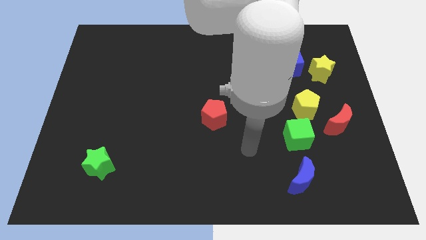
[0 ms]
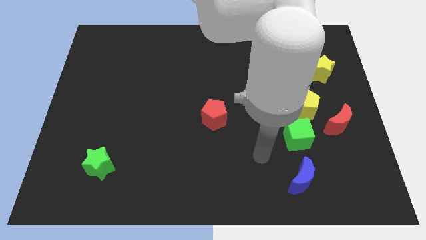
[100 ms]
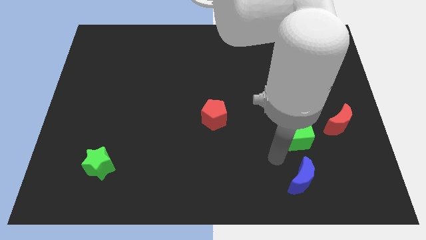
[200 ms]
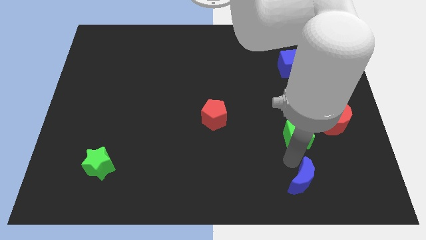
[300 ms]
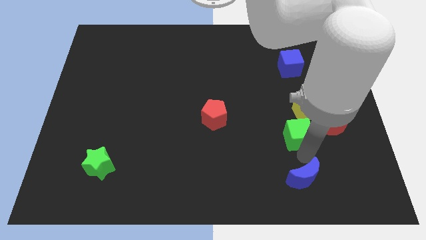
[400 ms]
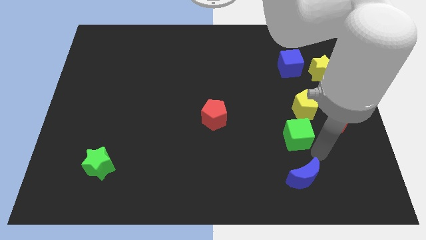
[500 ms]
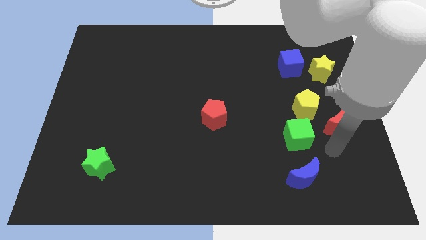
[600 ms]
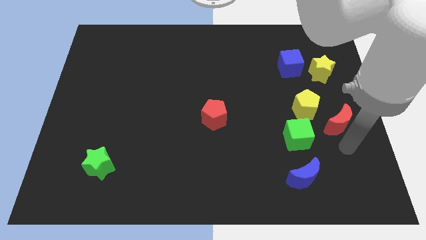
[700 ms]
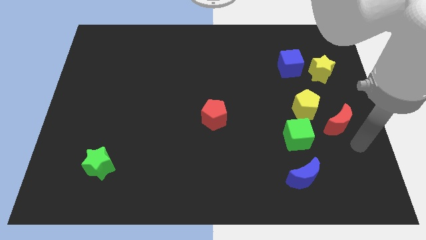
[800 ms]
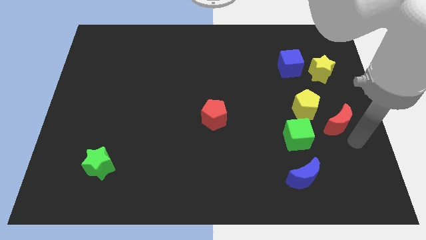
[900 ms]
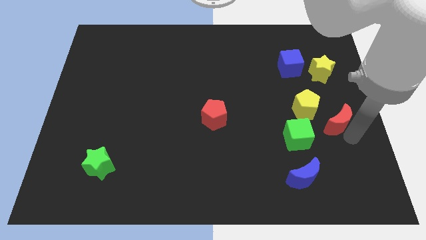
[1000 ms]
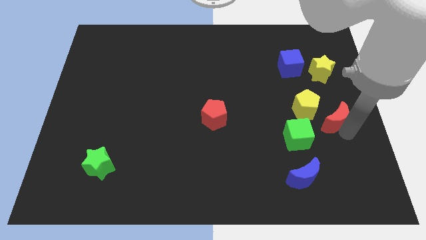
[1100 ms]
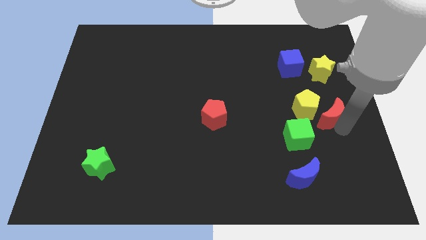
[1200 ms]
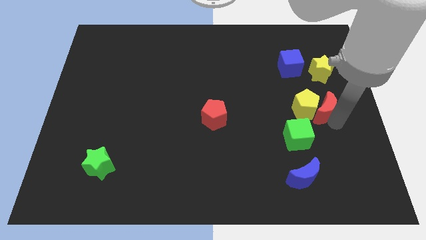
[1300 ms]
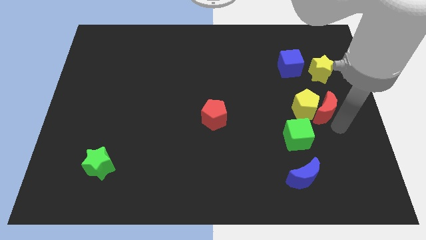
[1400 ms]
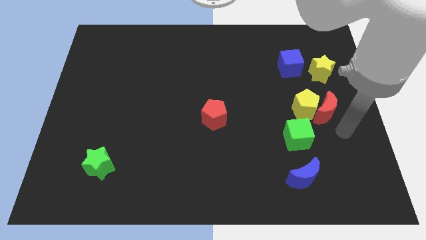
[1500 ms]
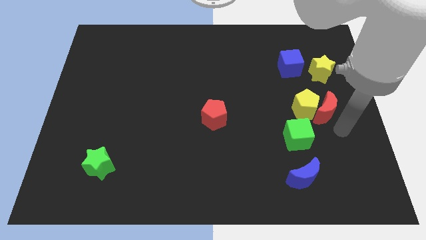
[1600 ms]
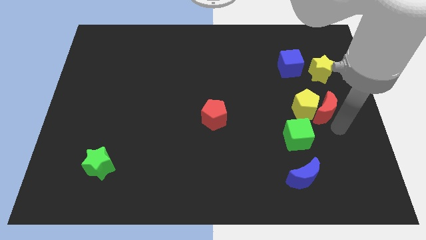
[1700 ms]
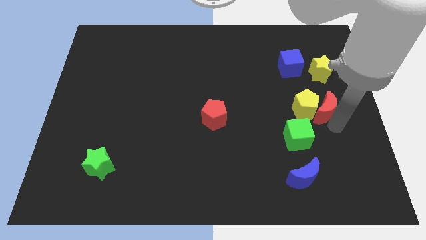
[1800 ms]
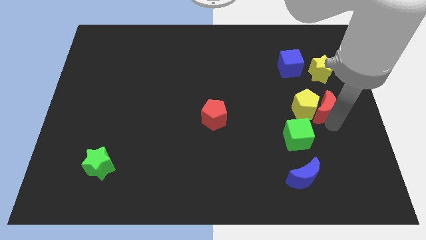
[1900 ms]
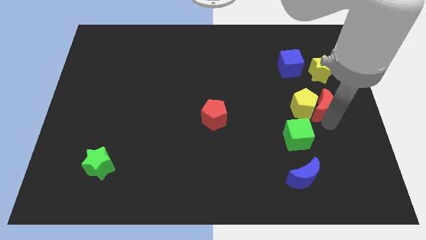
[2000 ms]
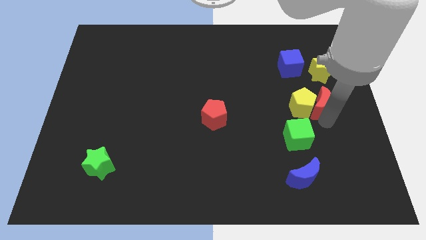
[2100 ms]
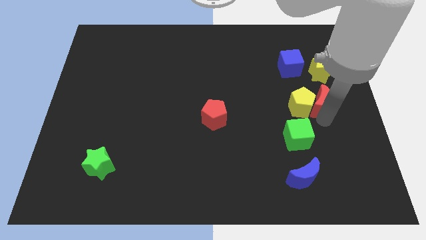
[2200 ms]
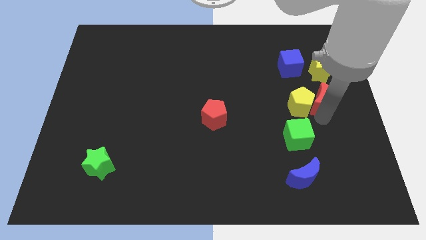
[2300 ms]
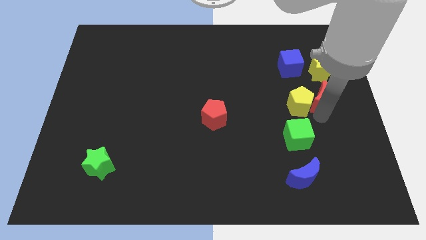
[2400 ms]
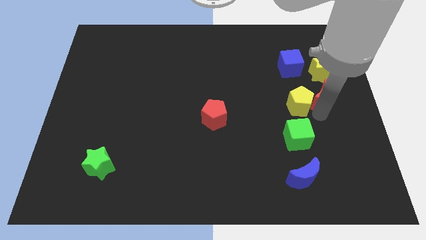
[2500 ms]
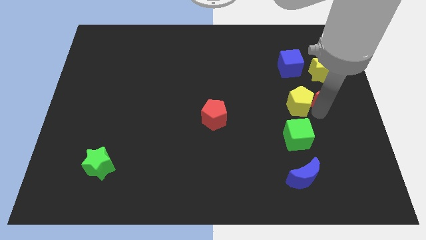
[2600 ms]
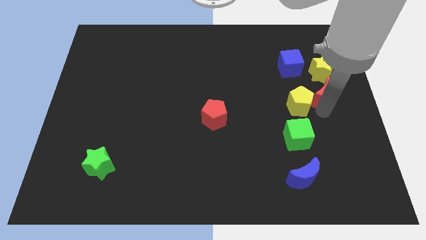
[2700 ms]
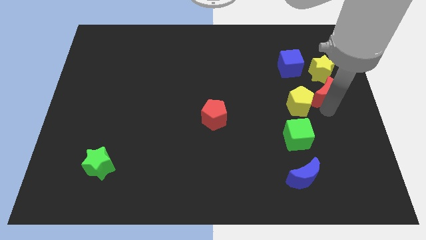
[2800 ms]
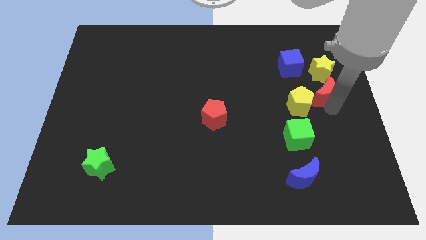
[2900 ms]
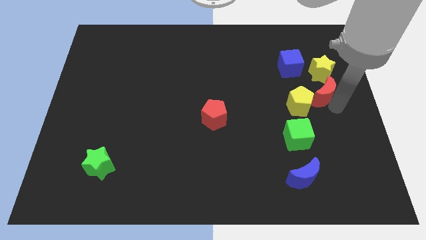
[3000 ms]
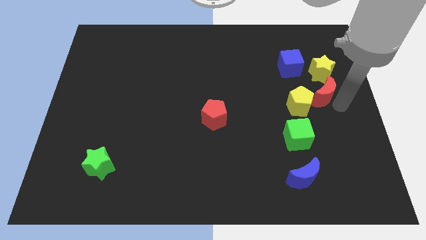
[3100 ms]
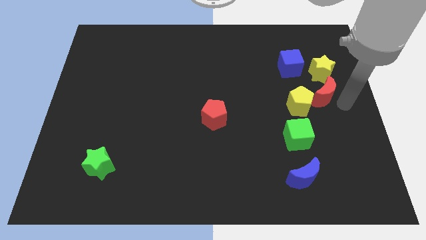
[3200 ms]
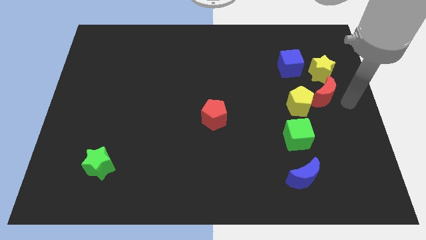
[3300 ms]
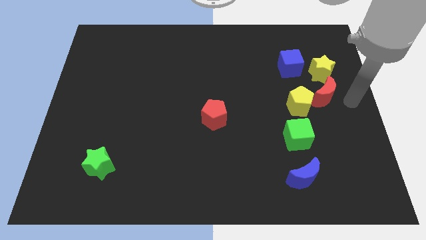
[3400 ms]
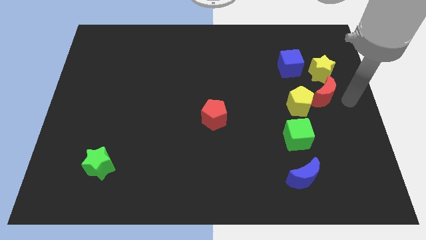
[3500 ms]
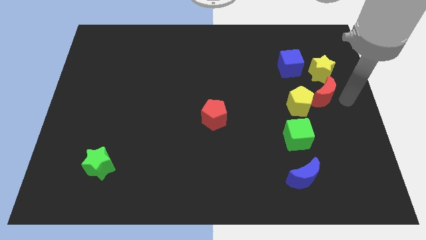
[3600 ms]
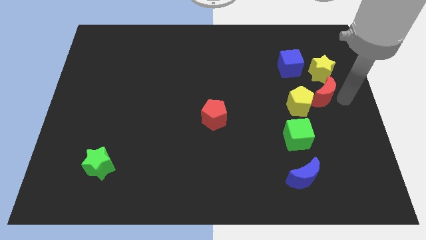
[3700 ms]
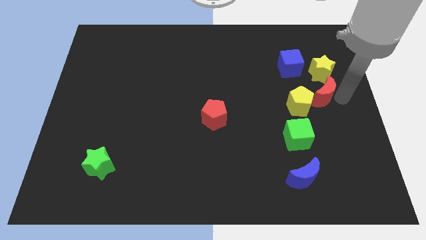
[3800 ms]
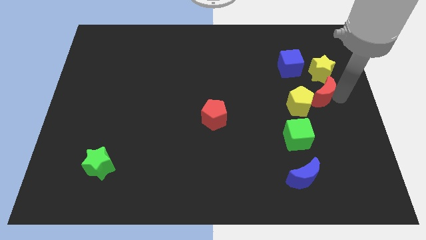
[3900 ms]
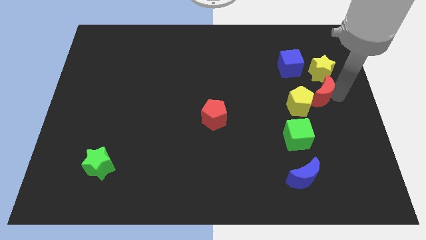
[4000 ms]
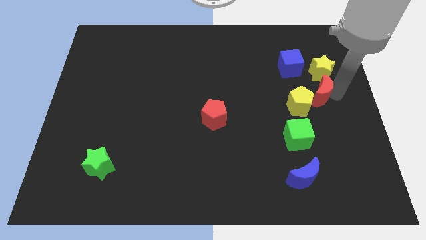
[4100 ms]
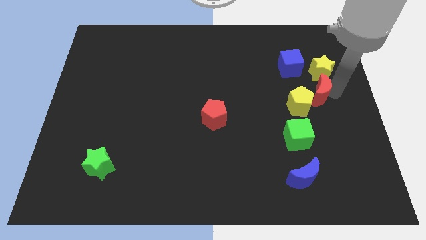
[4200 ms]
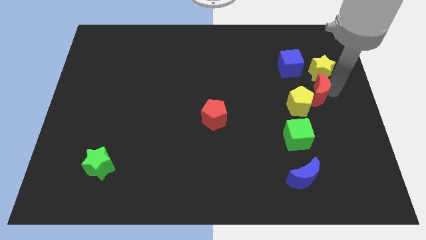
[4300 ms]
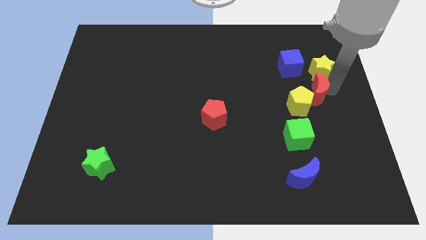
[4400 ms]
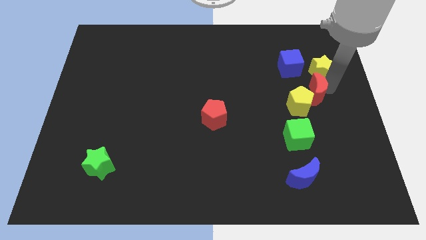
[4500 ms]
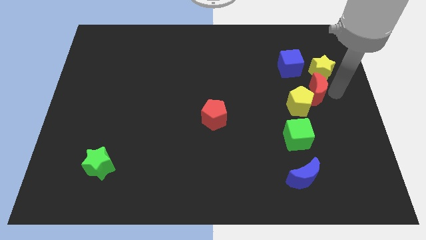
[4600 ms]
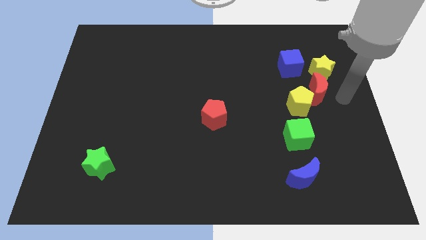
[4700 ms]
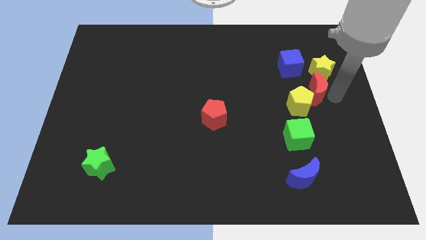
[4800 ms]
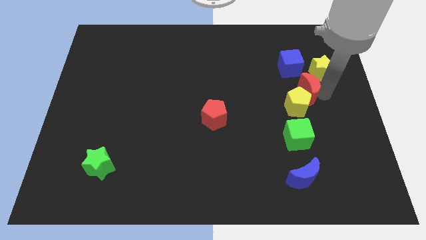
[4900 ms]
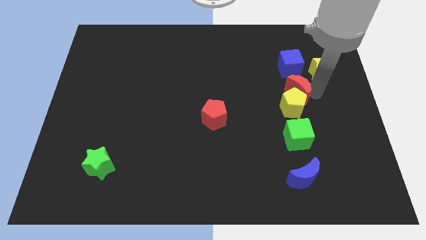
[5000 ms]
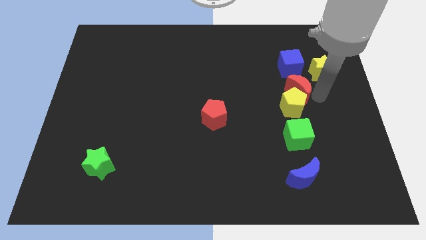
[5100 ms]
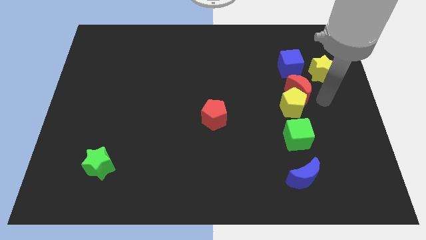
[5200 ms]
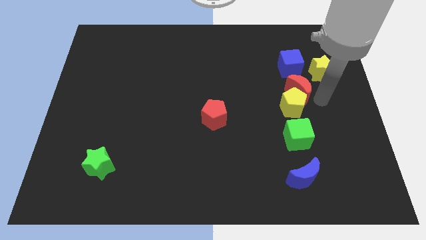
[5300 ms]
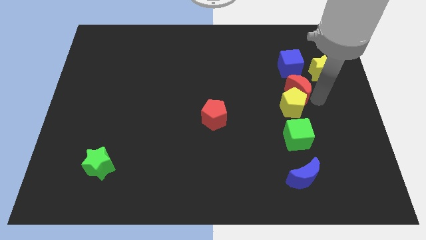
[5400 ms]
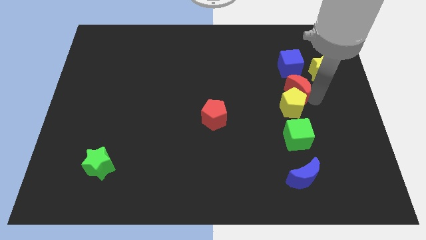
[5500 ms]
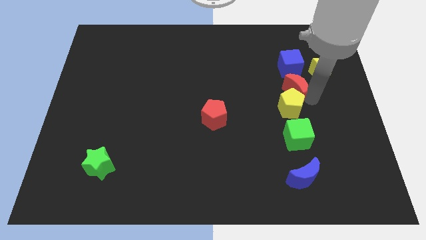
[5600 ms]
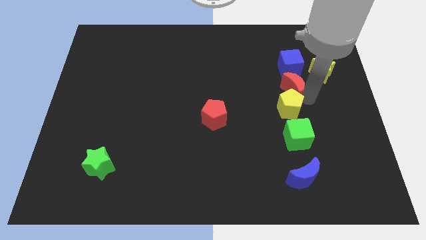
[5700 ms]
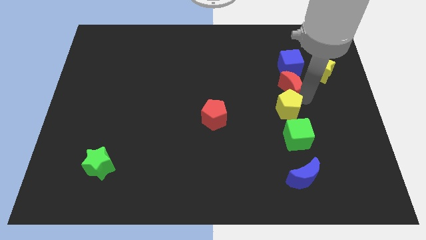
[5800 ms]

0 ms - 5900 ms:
put the red moon diagonally down and to the left of the blue cube

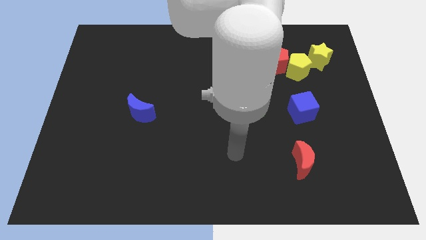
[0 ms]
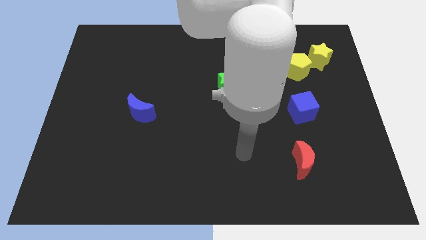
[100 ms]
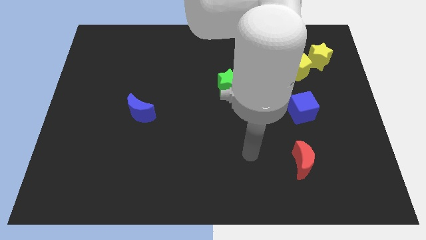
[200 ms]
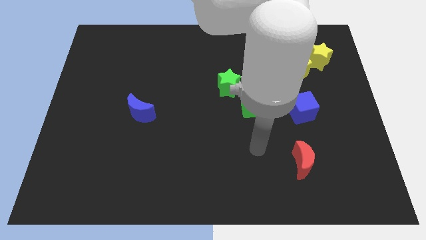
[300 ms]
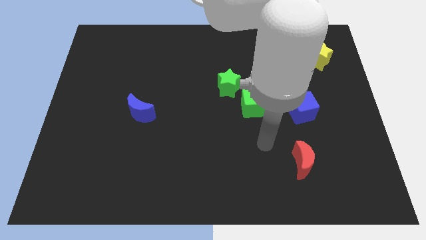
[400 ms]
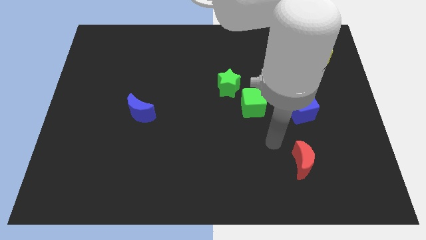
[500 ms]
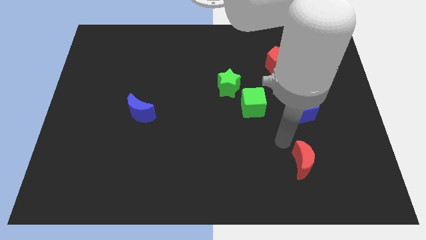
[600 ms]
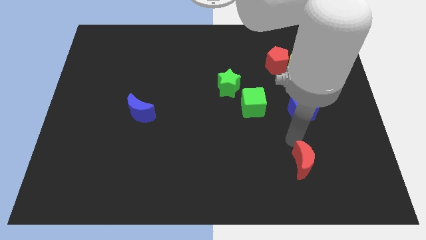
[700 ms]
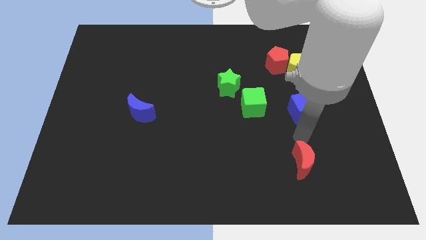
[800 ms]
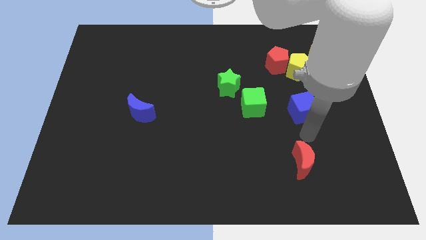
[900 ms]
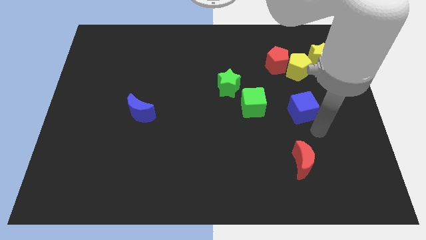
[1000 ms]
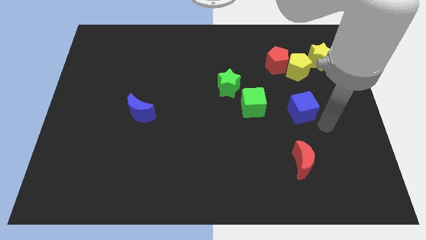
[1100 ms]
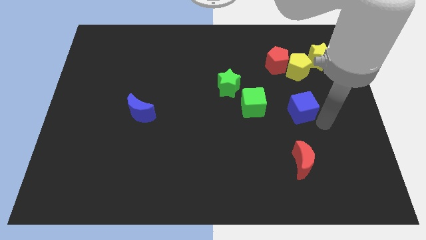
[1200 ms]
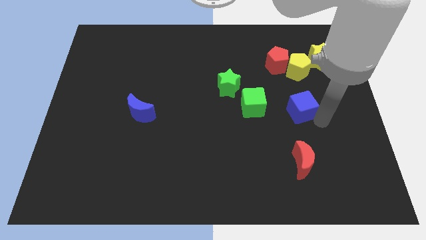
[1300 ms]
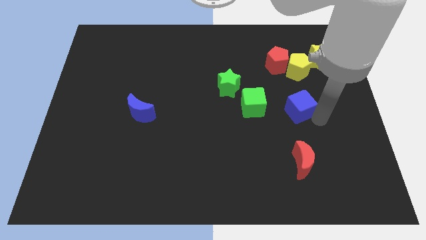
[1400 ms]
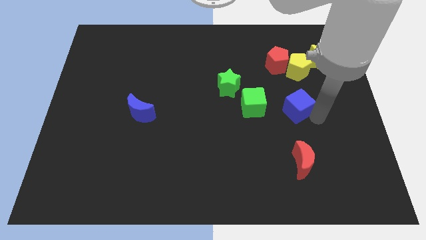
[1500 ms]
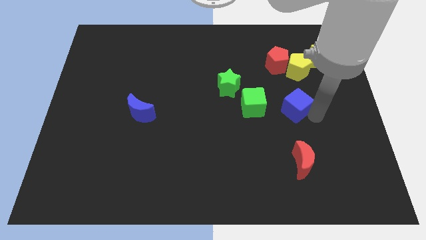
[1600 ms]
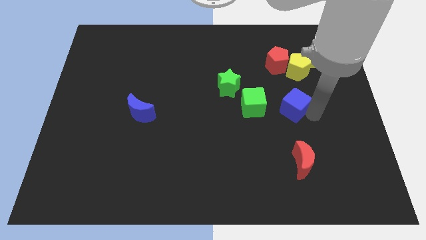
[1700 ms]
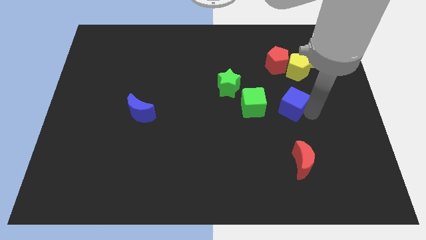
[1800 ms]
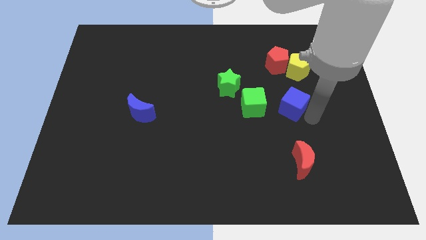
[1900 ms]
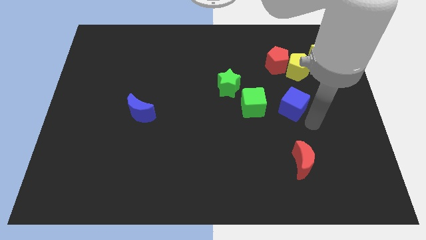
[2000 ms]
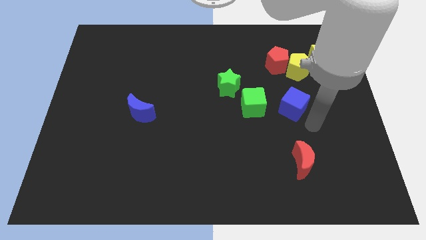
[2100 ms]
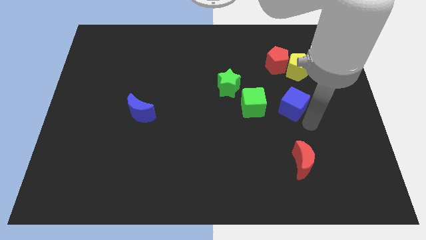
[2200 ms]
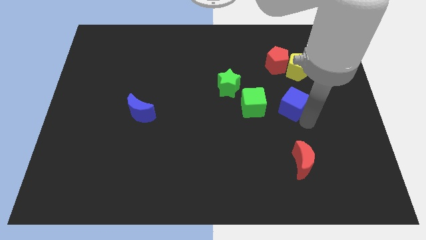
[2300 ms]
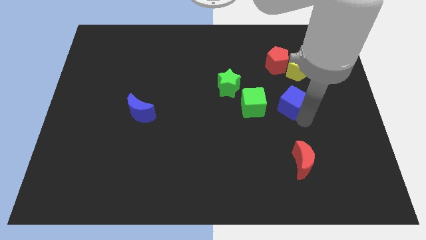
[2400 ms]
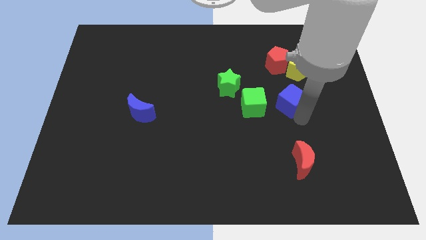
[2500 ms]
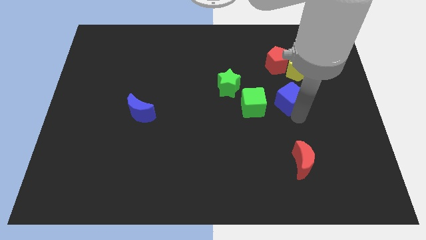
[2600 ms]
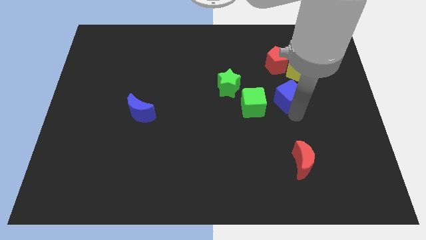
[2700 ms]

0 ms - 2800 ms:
slide the blue cube to the top right of the green cube
